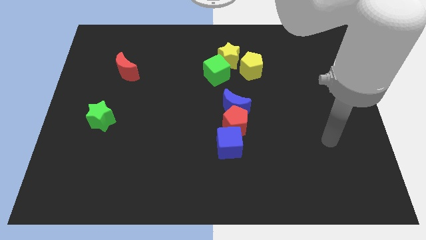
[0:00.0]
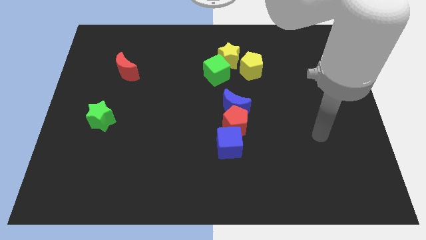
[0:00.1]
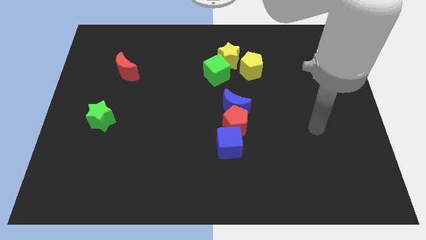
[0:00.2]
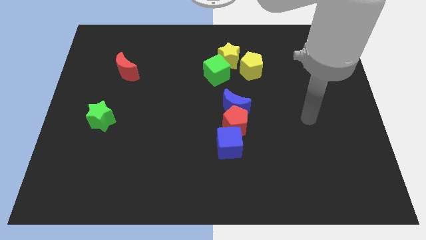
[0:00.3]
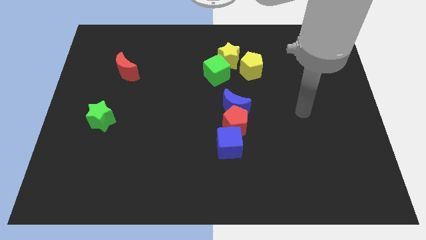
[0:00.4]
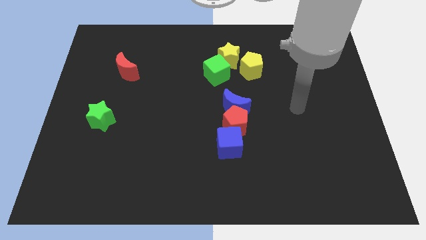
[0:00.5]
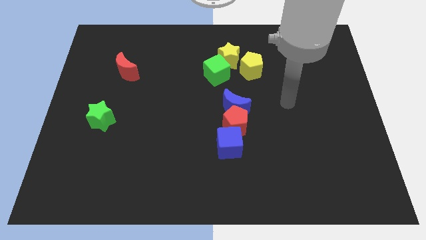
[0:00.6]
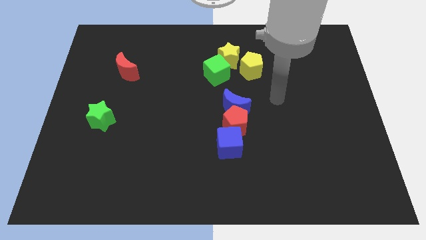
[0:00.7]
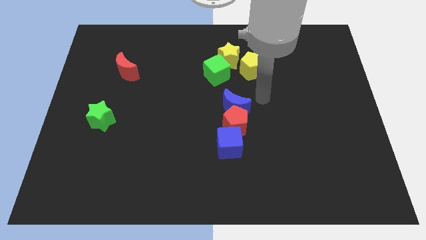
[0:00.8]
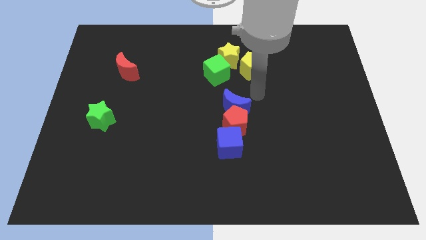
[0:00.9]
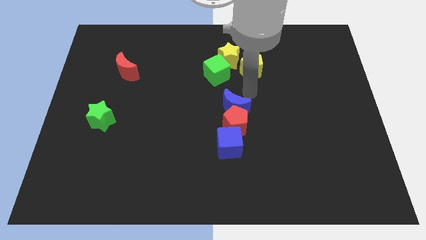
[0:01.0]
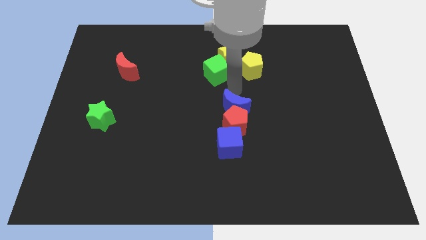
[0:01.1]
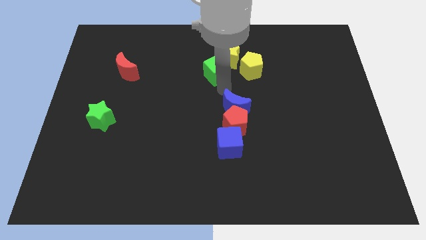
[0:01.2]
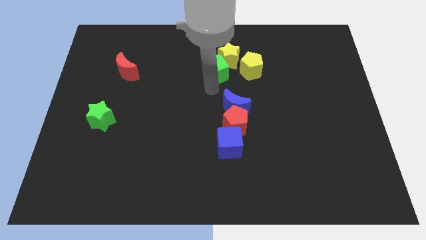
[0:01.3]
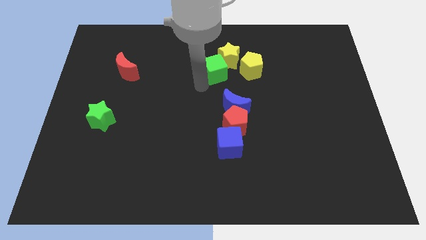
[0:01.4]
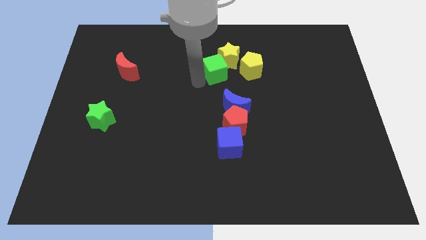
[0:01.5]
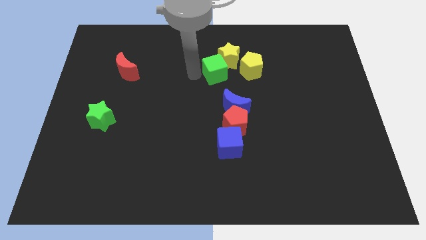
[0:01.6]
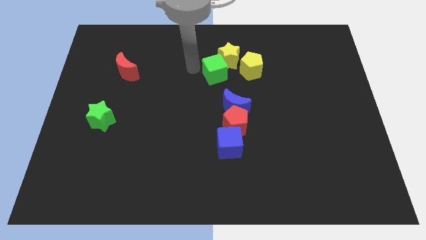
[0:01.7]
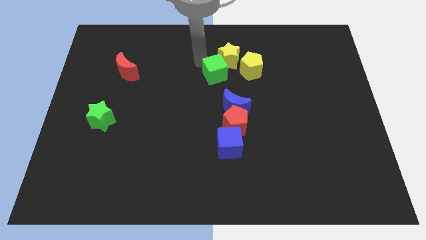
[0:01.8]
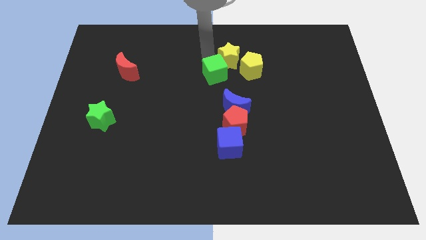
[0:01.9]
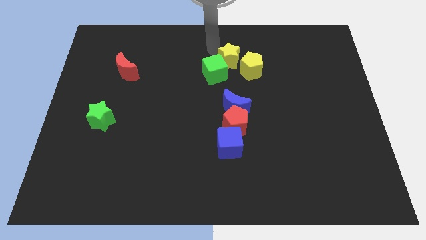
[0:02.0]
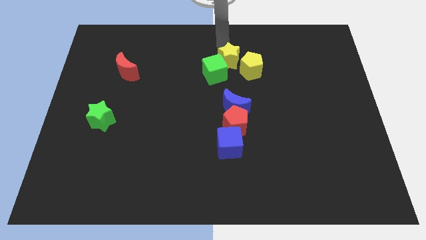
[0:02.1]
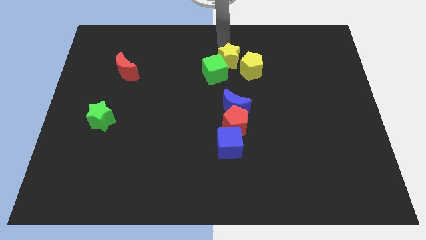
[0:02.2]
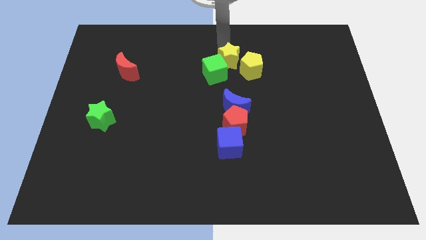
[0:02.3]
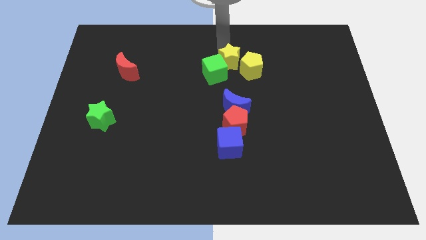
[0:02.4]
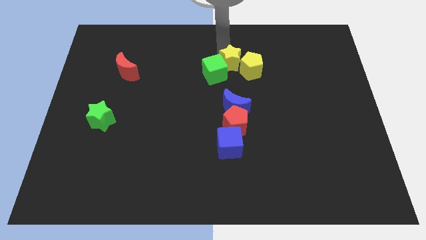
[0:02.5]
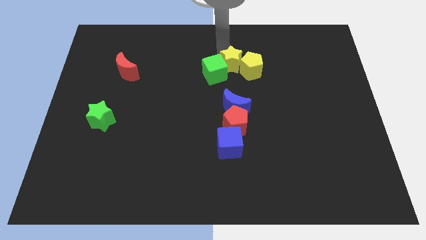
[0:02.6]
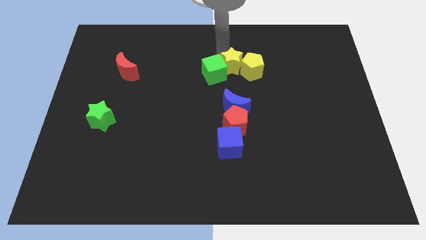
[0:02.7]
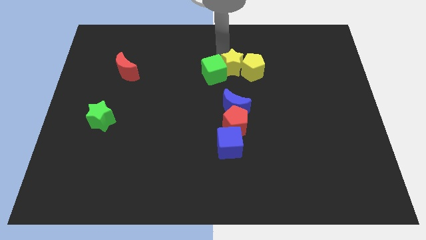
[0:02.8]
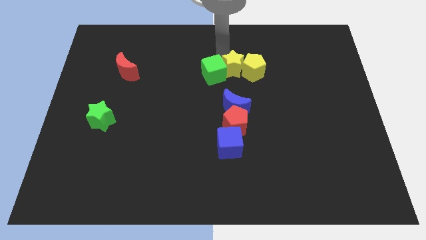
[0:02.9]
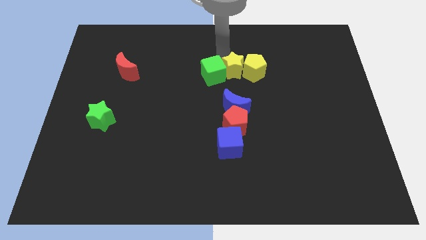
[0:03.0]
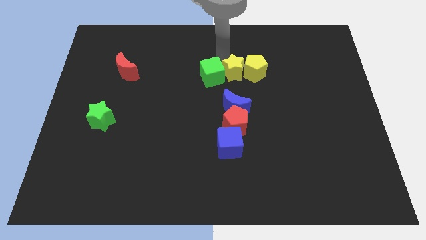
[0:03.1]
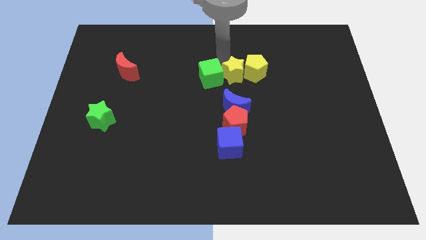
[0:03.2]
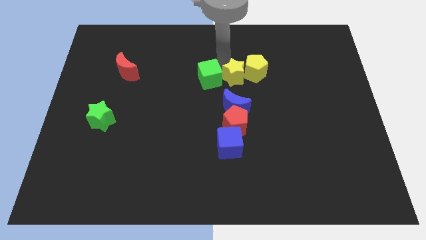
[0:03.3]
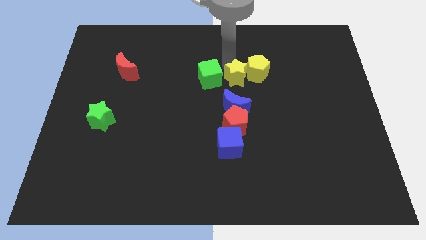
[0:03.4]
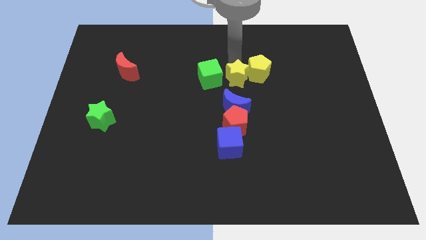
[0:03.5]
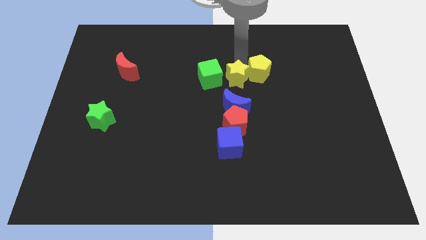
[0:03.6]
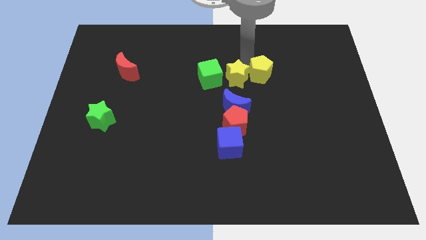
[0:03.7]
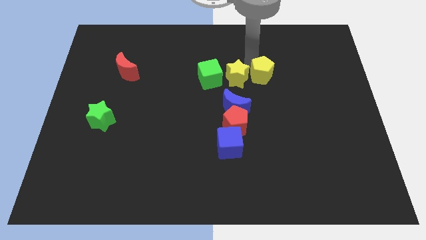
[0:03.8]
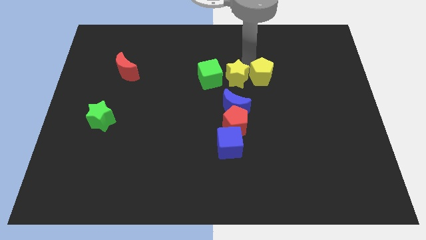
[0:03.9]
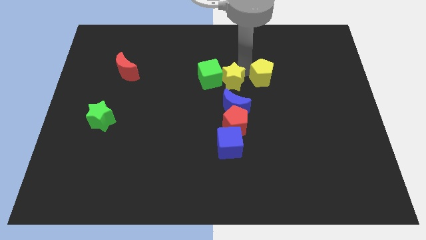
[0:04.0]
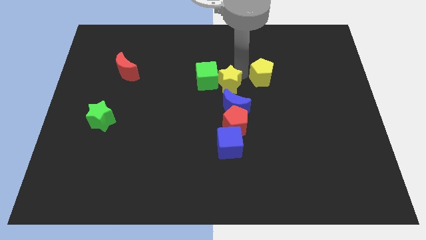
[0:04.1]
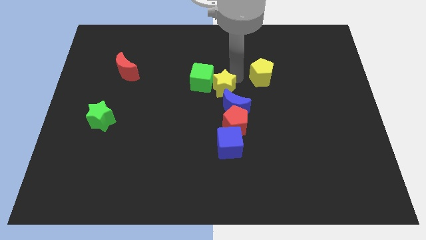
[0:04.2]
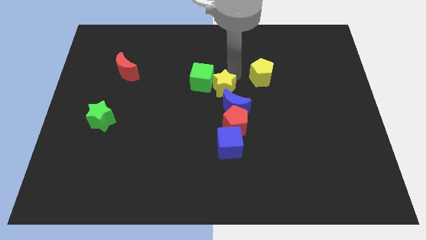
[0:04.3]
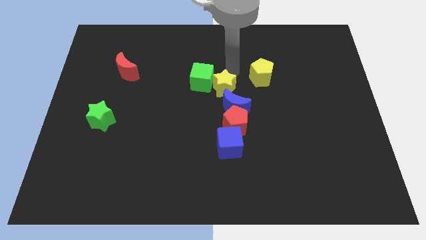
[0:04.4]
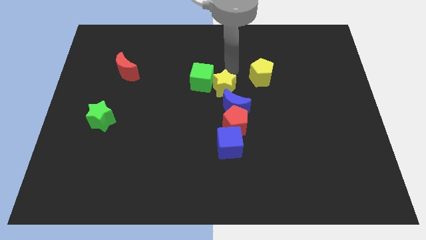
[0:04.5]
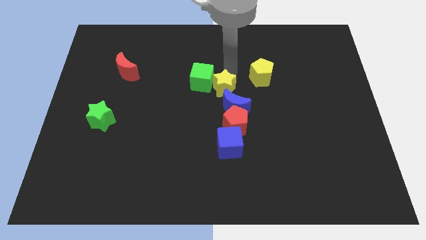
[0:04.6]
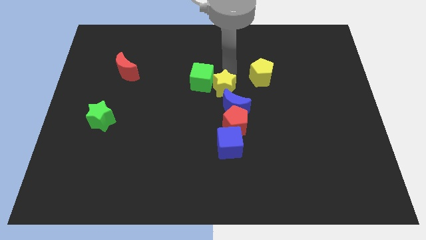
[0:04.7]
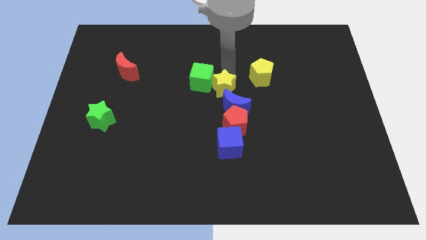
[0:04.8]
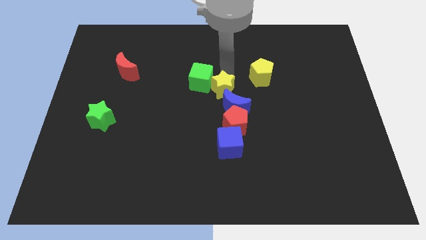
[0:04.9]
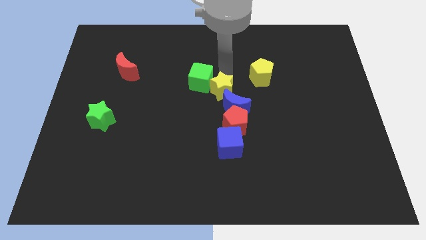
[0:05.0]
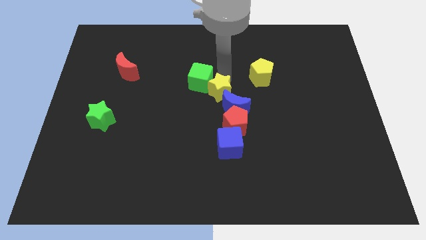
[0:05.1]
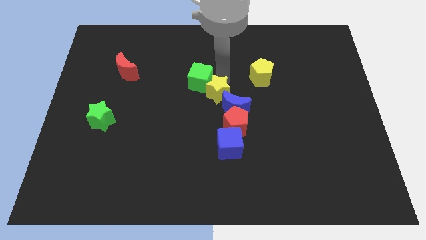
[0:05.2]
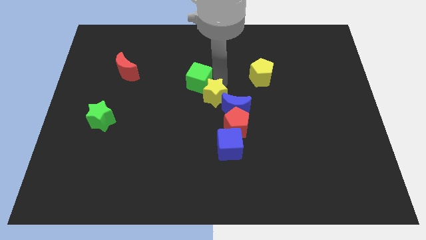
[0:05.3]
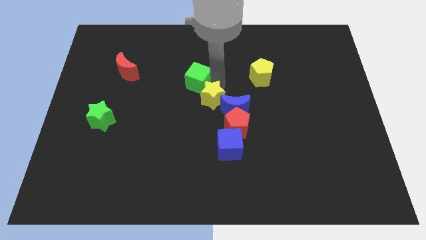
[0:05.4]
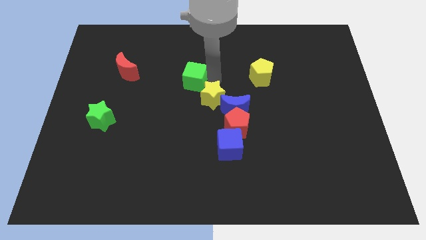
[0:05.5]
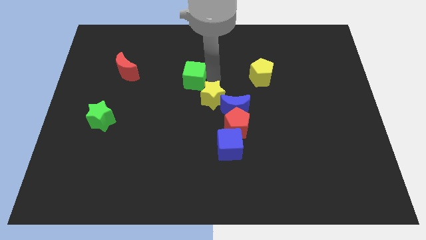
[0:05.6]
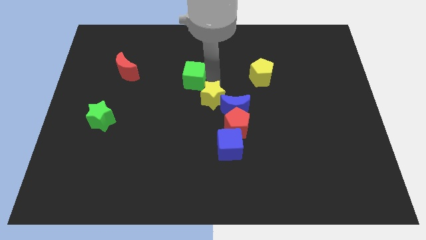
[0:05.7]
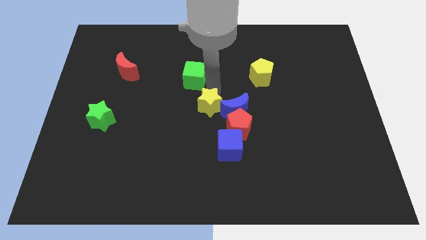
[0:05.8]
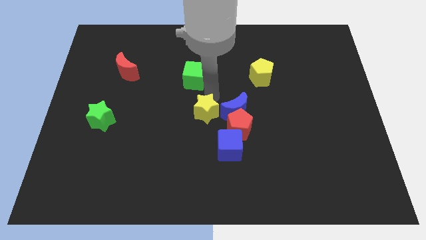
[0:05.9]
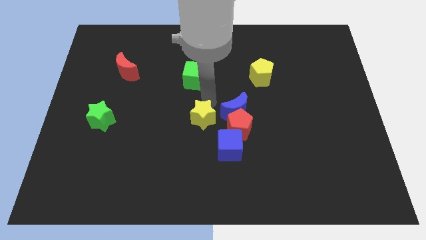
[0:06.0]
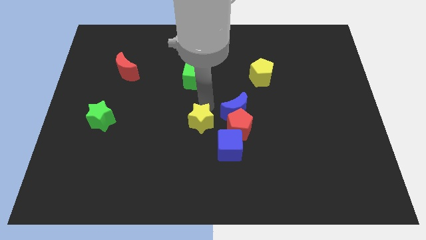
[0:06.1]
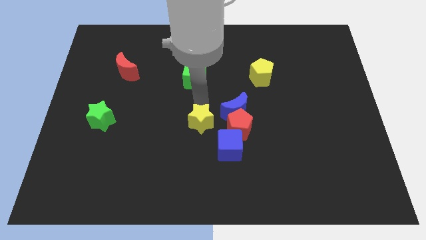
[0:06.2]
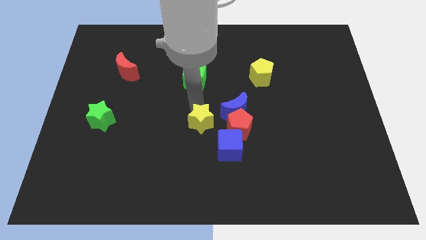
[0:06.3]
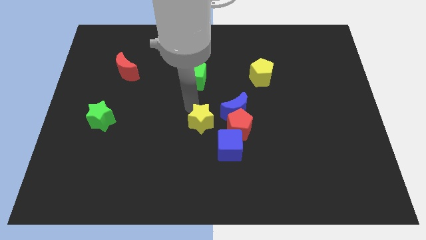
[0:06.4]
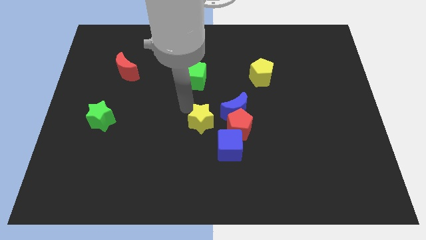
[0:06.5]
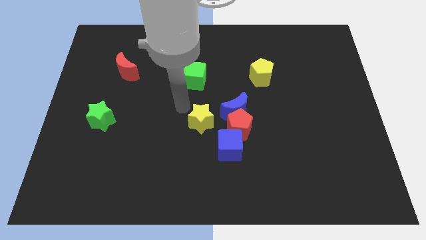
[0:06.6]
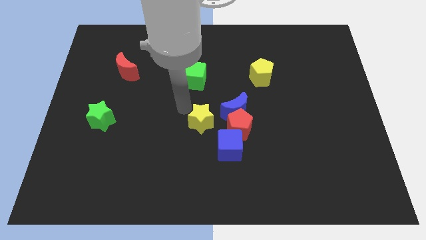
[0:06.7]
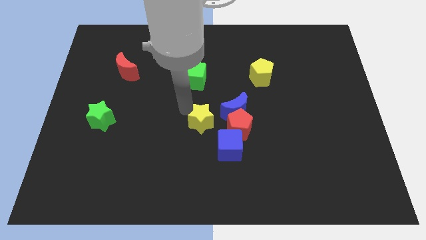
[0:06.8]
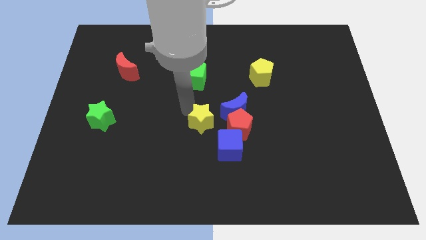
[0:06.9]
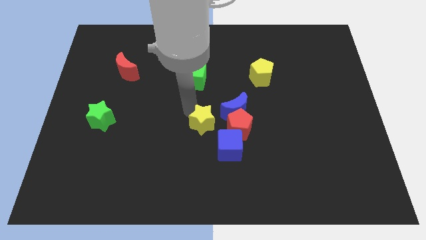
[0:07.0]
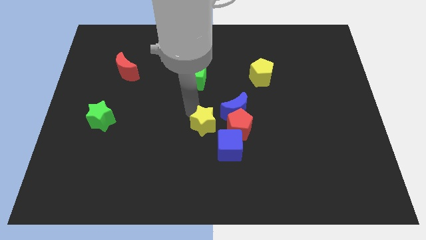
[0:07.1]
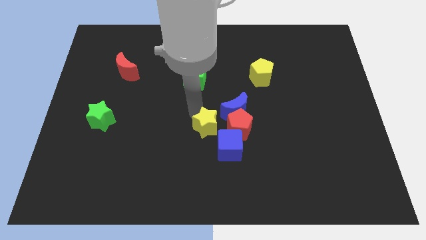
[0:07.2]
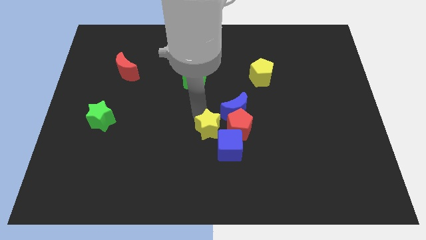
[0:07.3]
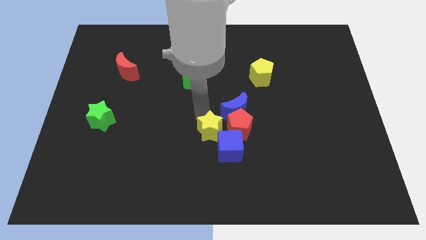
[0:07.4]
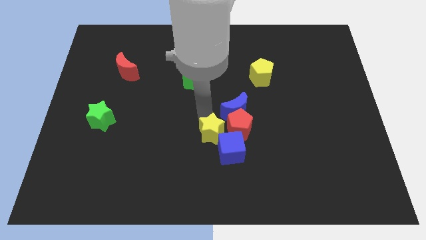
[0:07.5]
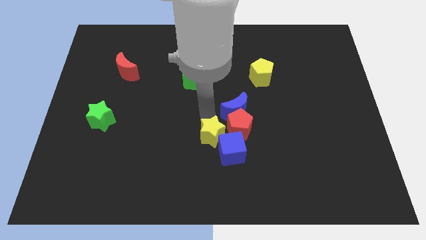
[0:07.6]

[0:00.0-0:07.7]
push the yellow star next to the blue cube
